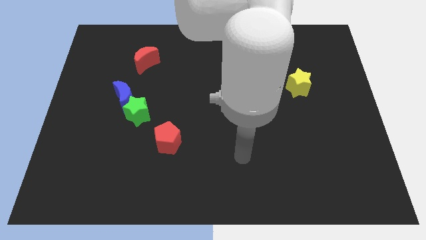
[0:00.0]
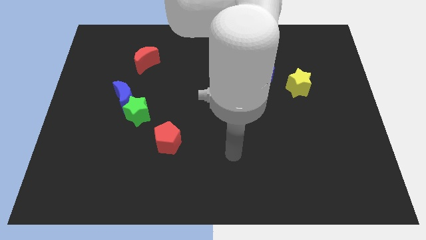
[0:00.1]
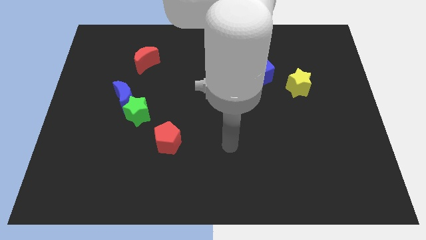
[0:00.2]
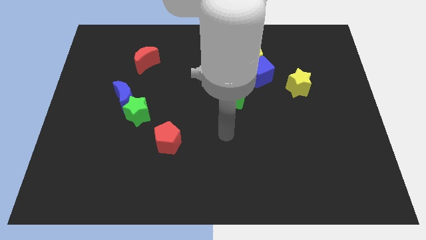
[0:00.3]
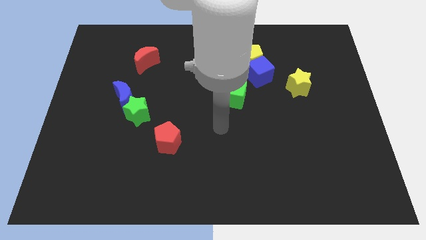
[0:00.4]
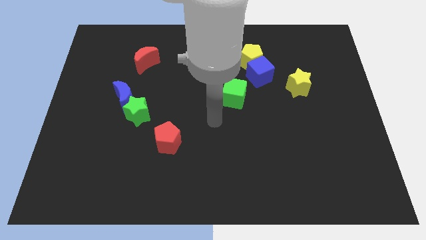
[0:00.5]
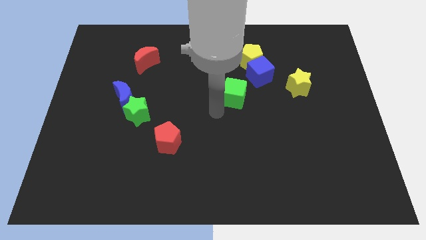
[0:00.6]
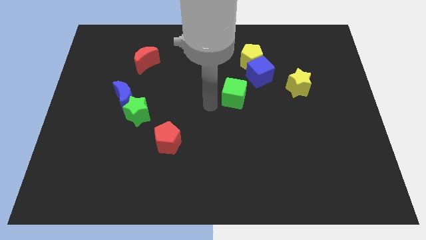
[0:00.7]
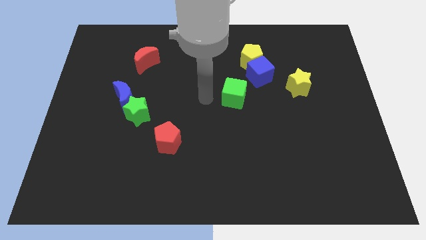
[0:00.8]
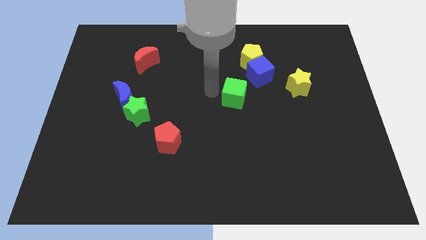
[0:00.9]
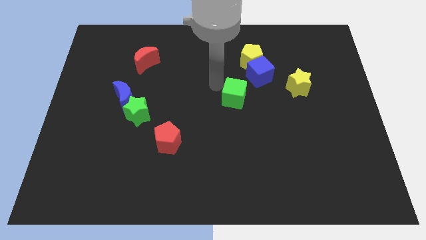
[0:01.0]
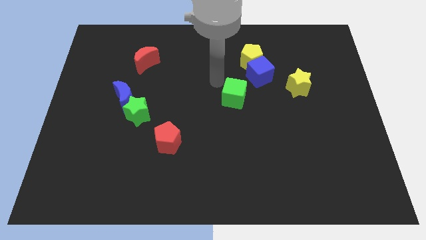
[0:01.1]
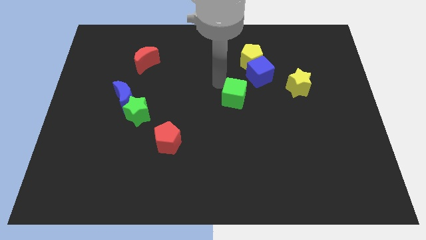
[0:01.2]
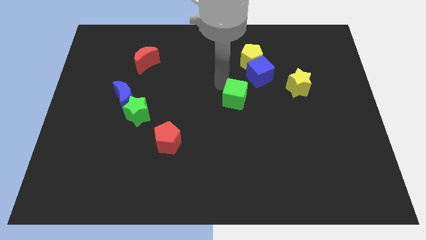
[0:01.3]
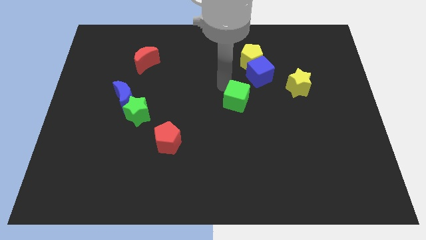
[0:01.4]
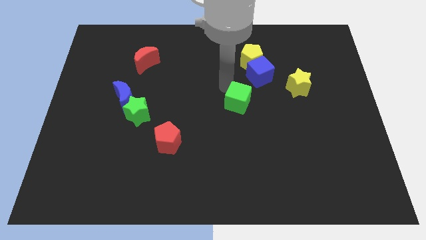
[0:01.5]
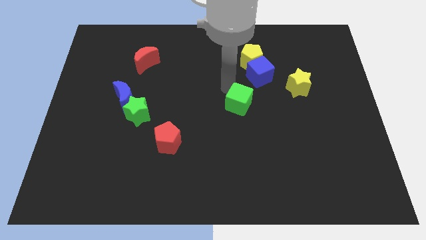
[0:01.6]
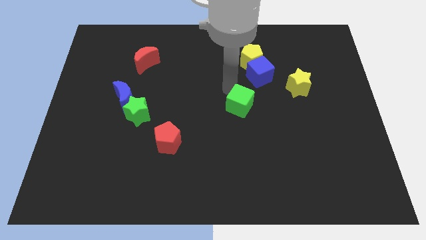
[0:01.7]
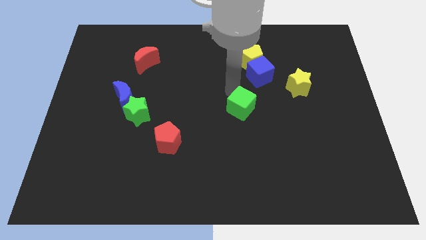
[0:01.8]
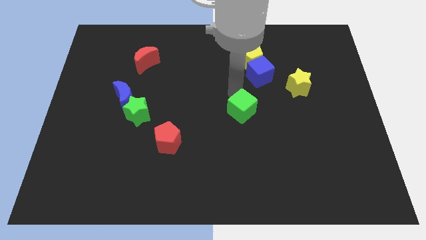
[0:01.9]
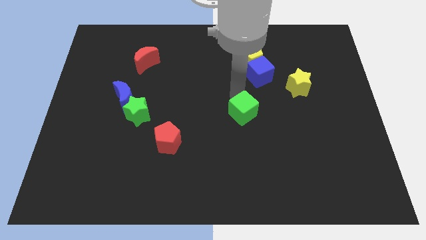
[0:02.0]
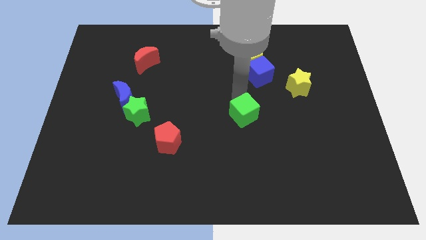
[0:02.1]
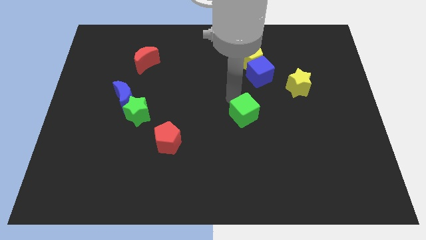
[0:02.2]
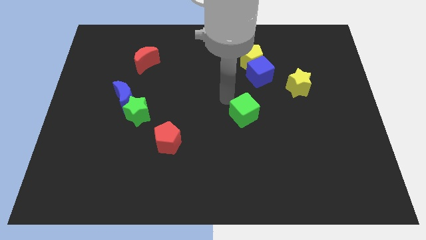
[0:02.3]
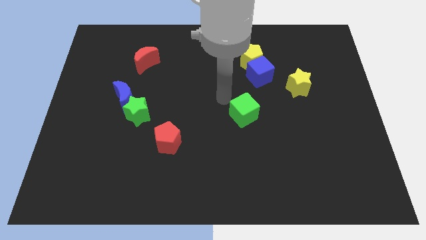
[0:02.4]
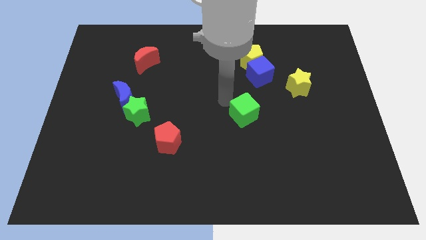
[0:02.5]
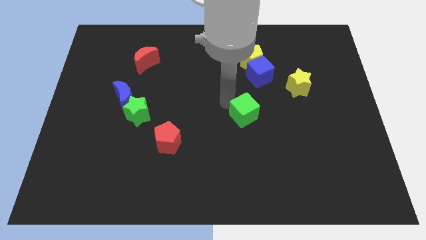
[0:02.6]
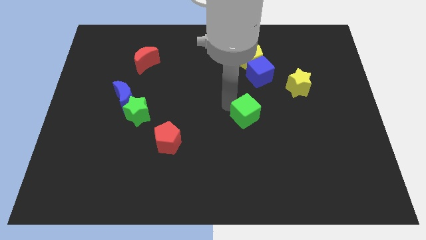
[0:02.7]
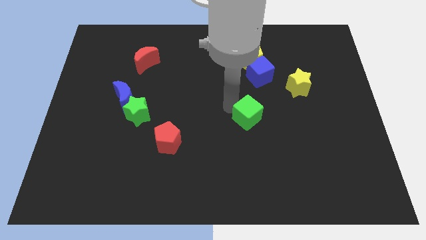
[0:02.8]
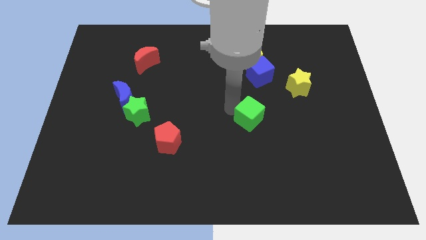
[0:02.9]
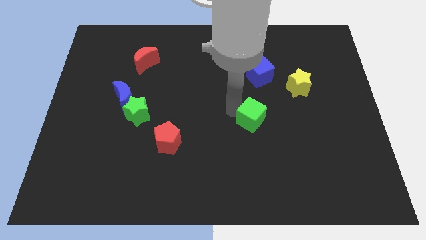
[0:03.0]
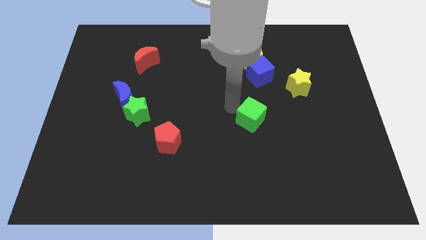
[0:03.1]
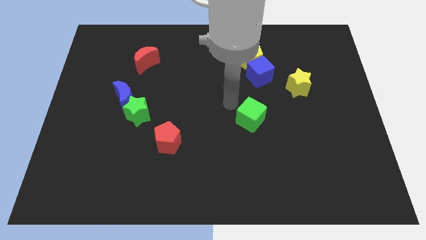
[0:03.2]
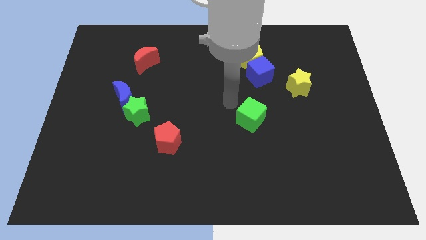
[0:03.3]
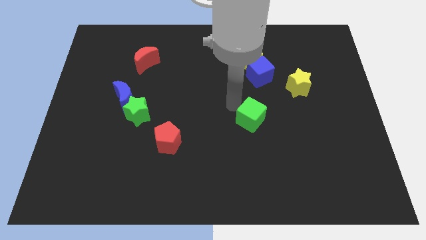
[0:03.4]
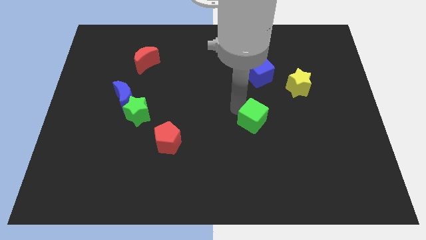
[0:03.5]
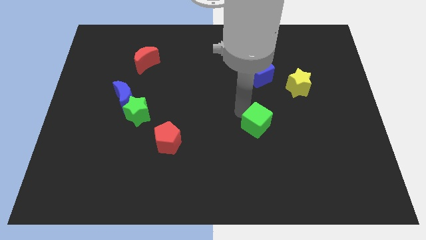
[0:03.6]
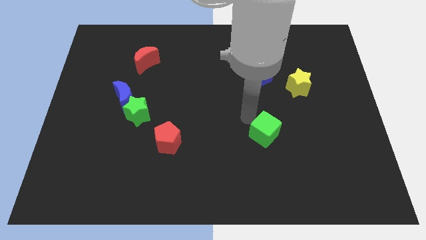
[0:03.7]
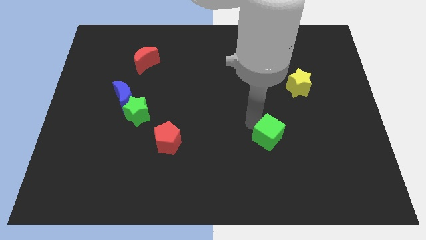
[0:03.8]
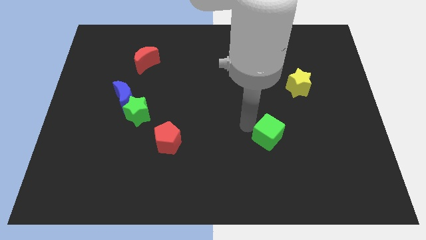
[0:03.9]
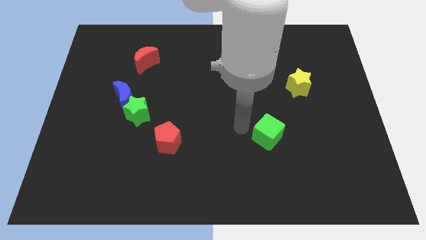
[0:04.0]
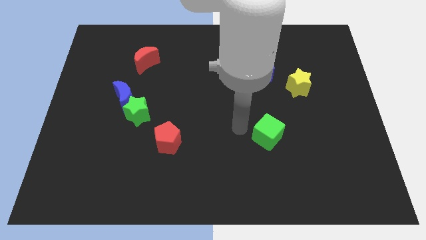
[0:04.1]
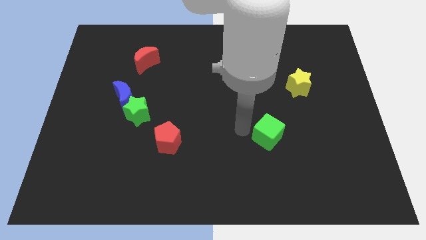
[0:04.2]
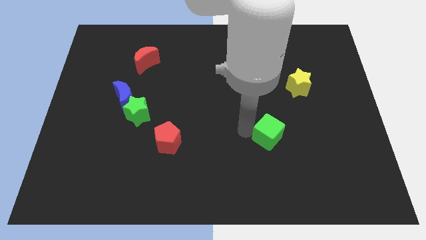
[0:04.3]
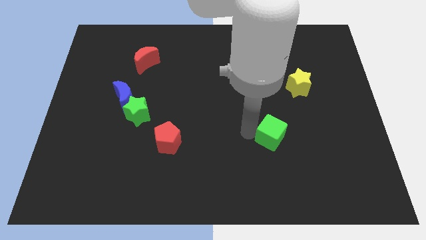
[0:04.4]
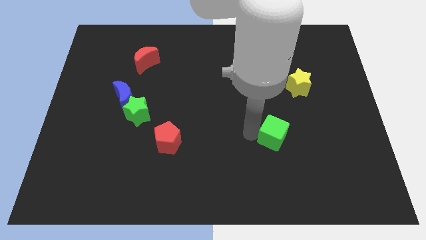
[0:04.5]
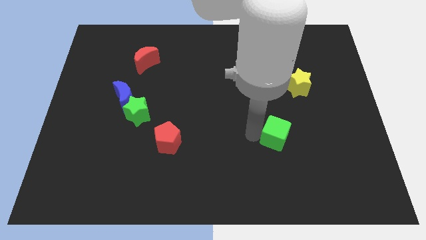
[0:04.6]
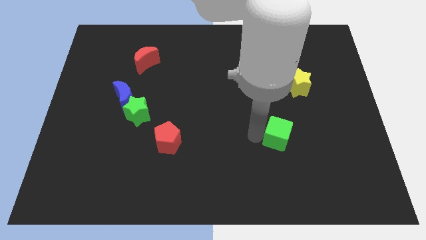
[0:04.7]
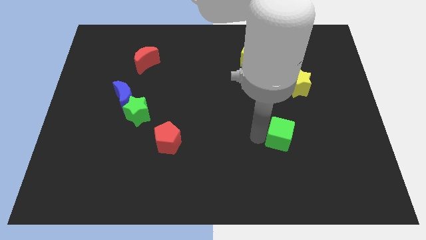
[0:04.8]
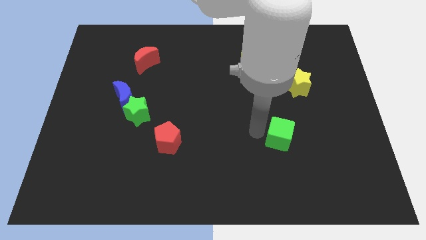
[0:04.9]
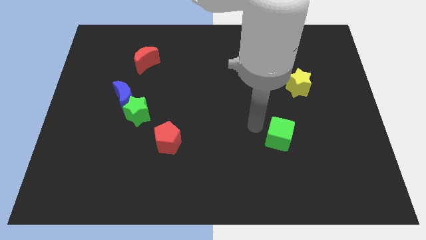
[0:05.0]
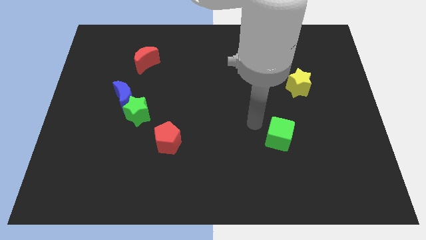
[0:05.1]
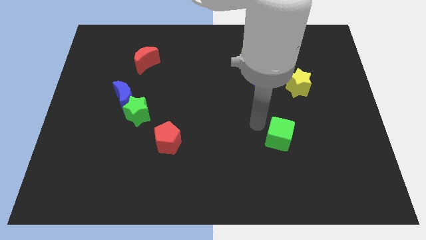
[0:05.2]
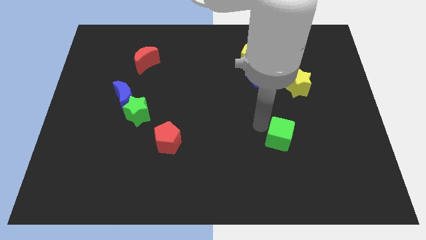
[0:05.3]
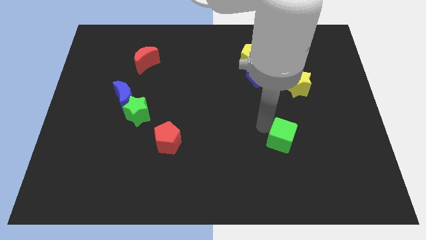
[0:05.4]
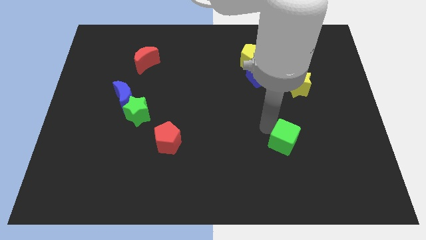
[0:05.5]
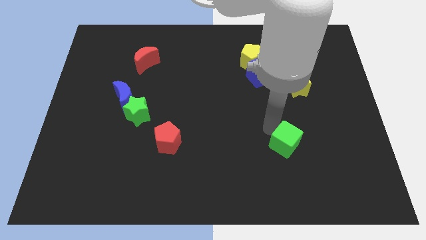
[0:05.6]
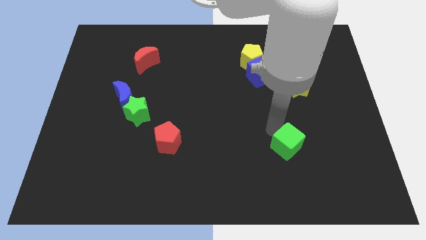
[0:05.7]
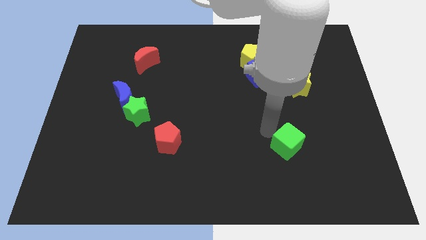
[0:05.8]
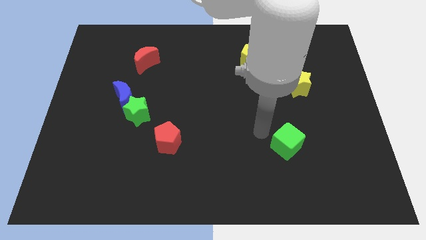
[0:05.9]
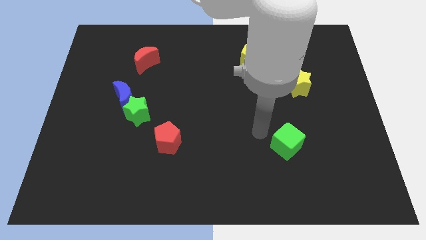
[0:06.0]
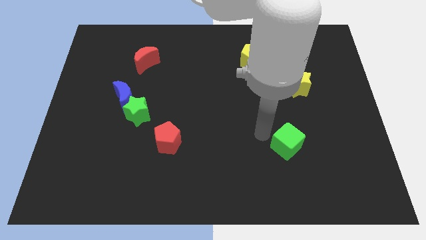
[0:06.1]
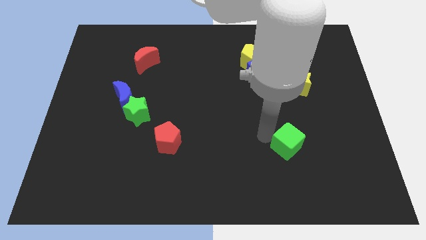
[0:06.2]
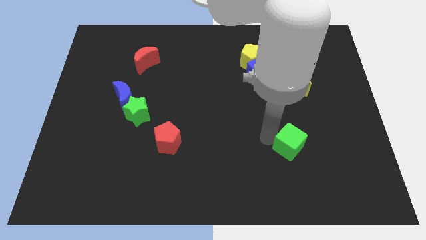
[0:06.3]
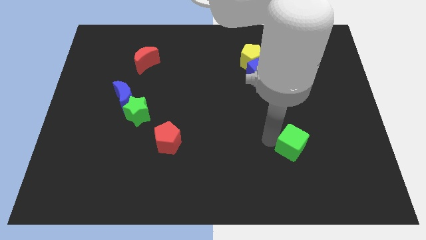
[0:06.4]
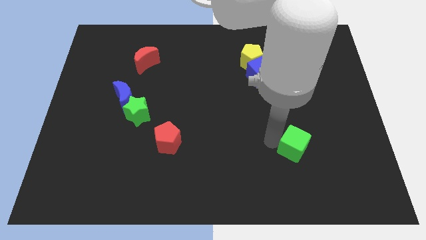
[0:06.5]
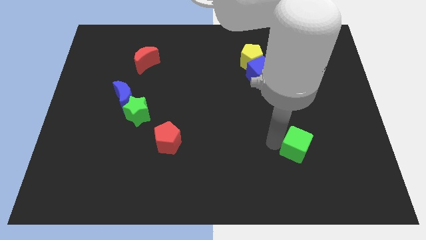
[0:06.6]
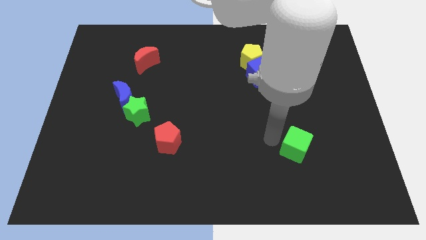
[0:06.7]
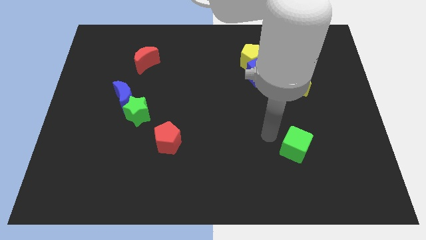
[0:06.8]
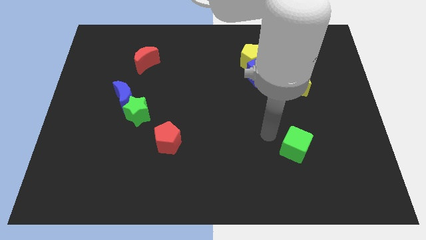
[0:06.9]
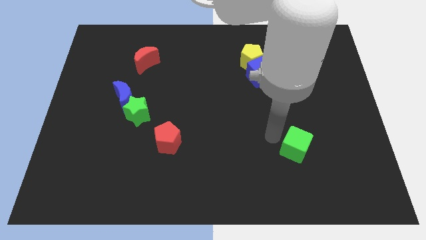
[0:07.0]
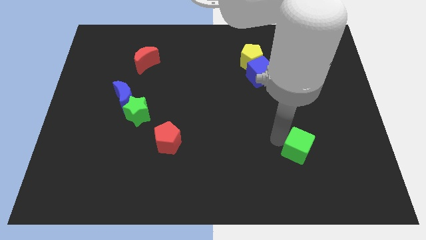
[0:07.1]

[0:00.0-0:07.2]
move the green cube down and right diagonally

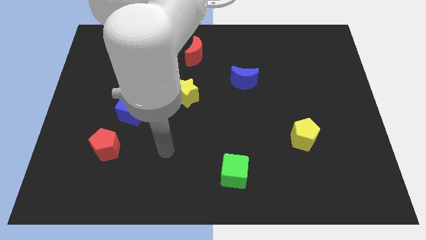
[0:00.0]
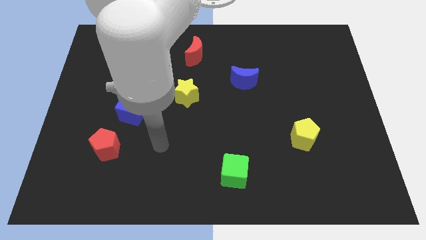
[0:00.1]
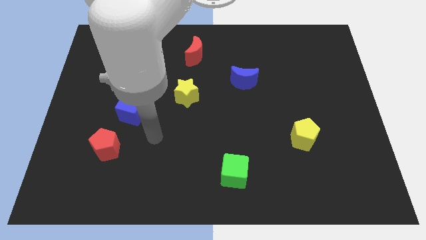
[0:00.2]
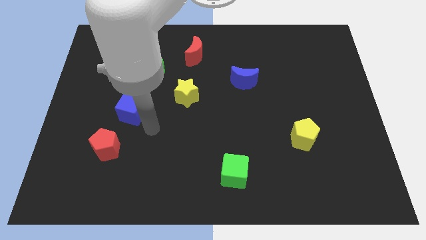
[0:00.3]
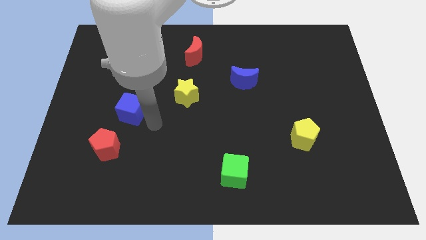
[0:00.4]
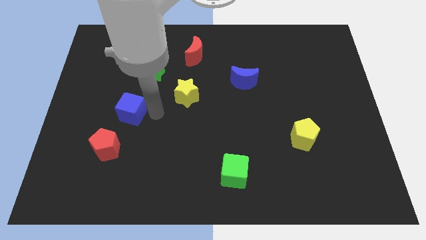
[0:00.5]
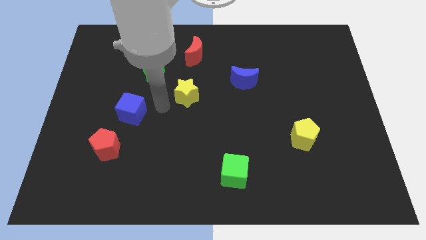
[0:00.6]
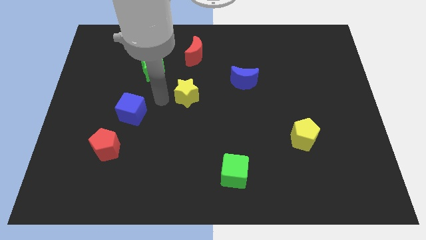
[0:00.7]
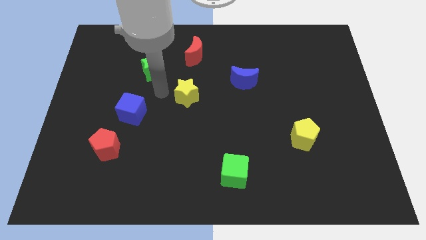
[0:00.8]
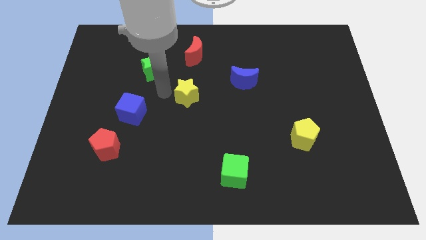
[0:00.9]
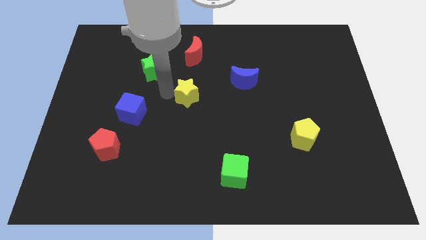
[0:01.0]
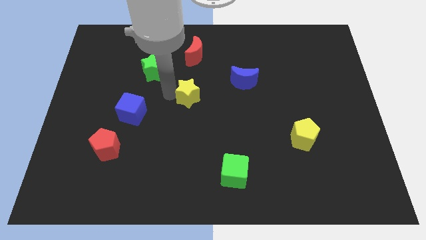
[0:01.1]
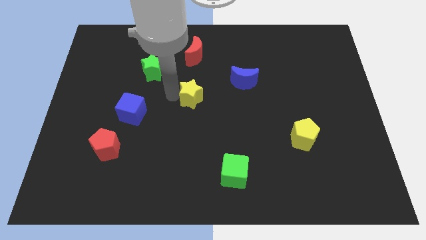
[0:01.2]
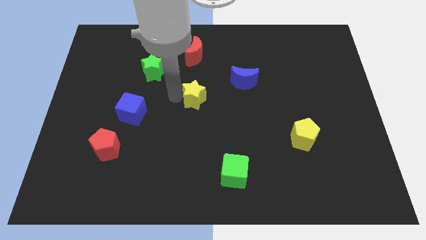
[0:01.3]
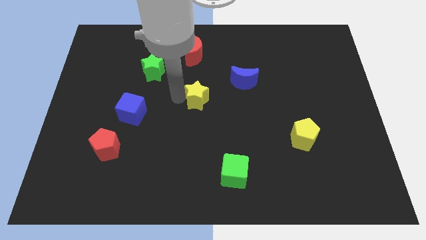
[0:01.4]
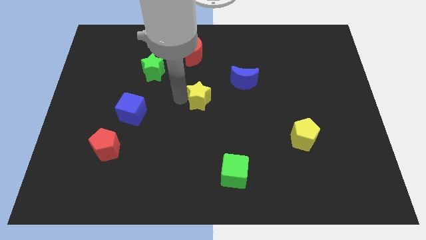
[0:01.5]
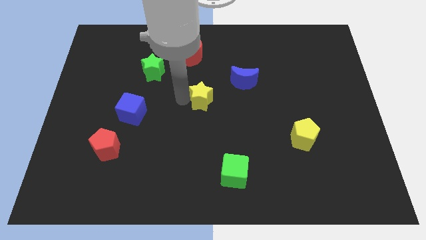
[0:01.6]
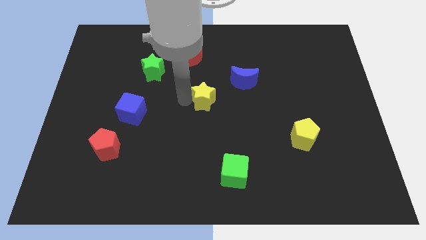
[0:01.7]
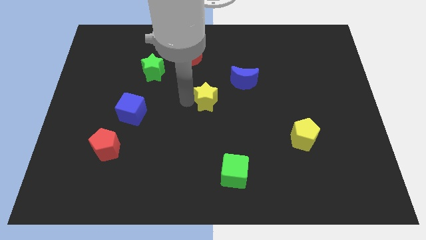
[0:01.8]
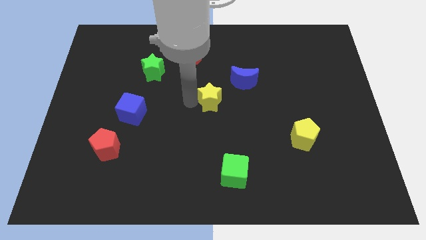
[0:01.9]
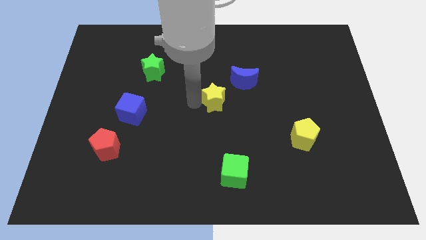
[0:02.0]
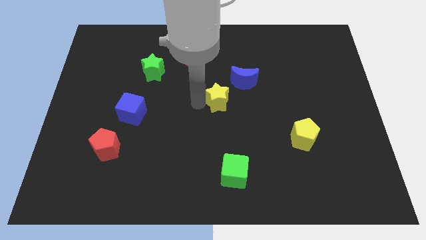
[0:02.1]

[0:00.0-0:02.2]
slightly move the yellow star right
